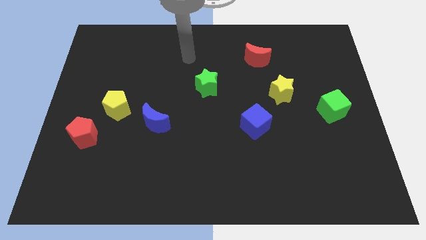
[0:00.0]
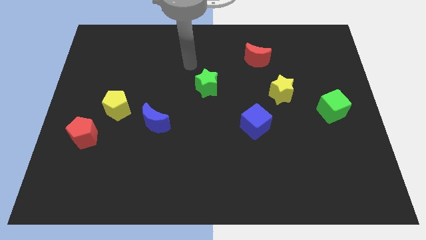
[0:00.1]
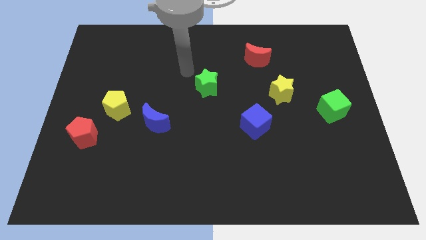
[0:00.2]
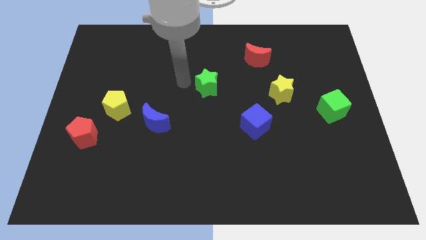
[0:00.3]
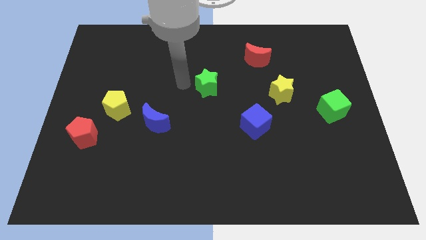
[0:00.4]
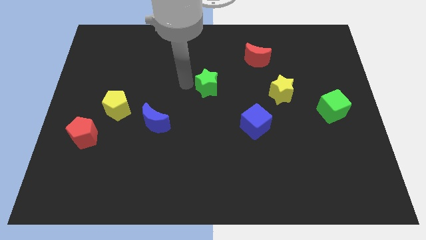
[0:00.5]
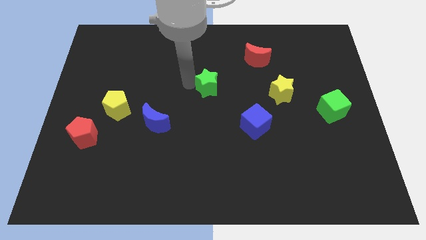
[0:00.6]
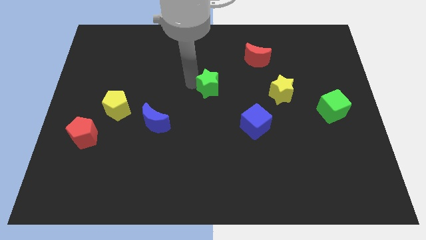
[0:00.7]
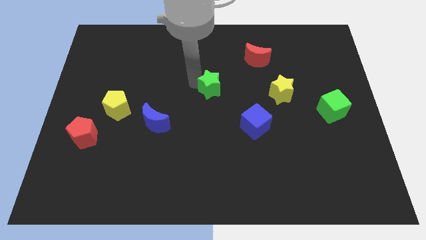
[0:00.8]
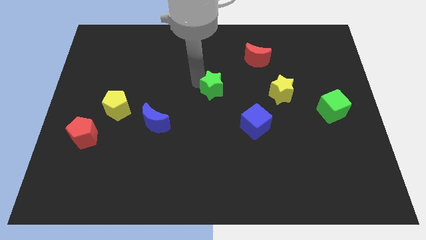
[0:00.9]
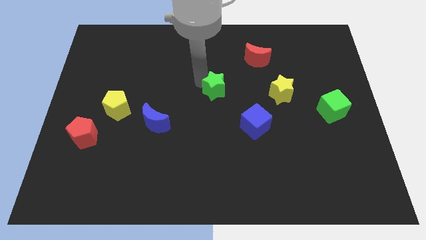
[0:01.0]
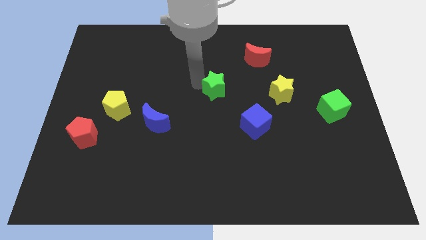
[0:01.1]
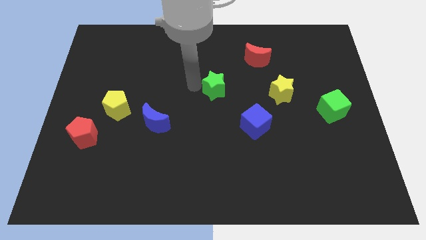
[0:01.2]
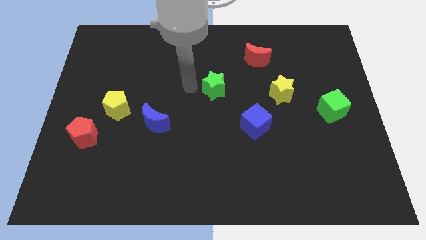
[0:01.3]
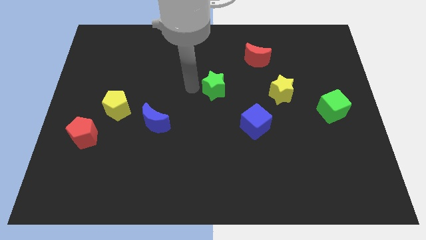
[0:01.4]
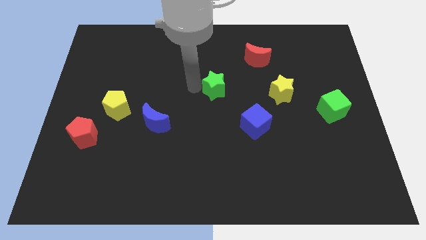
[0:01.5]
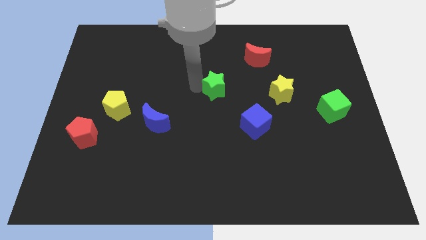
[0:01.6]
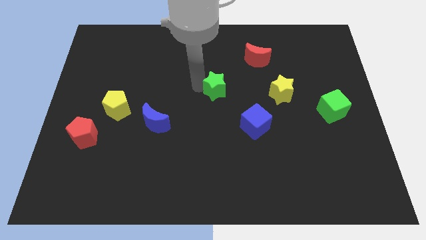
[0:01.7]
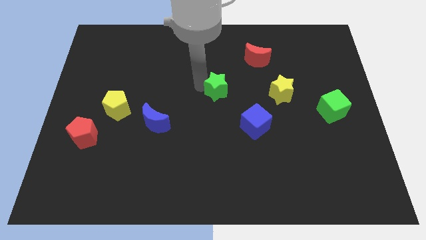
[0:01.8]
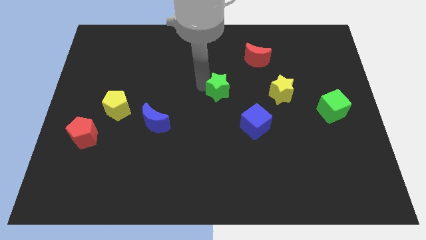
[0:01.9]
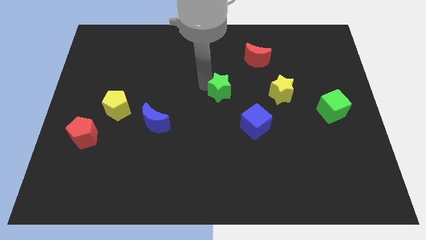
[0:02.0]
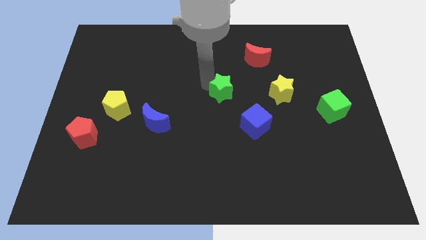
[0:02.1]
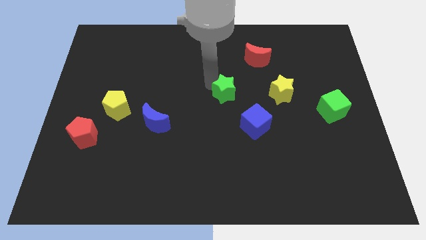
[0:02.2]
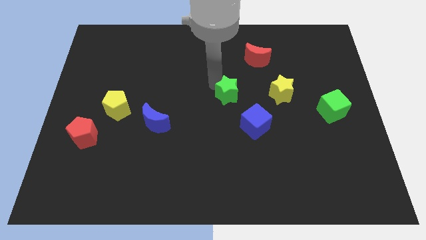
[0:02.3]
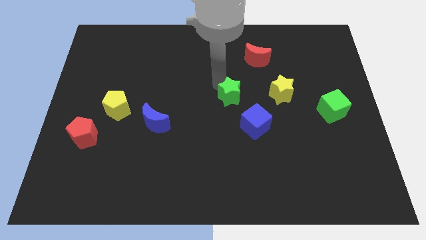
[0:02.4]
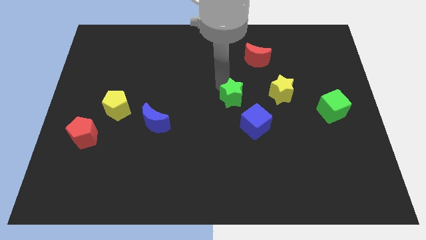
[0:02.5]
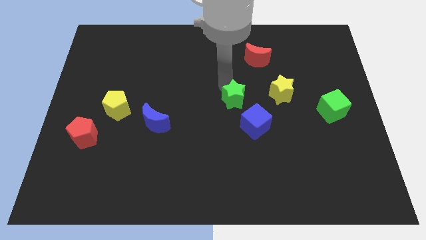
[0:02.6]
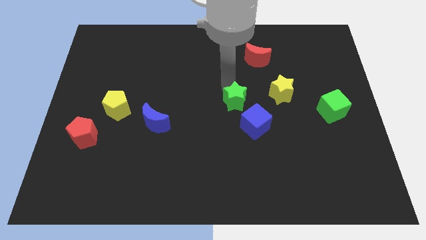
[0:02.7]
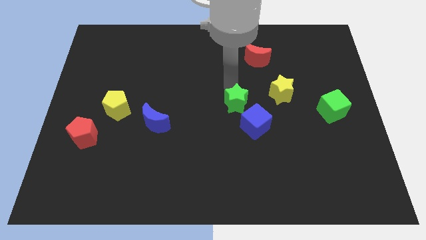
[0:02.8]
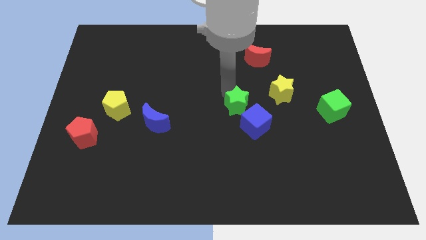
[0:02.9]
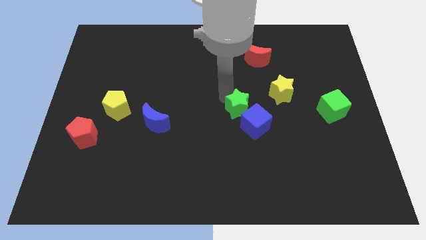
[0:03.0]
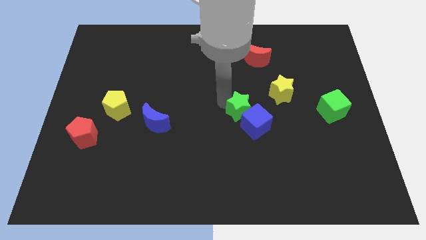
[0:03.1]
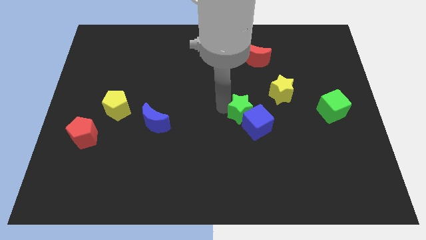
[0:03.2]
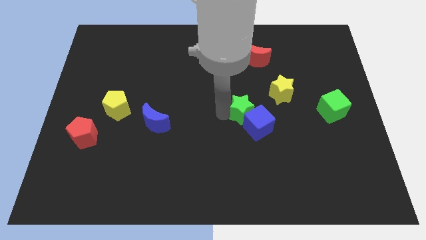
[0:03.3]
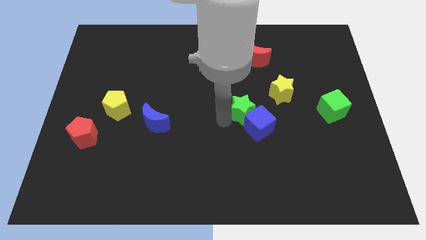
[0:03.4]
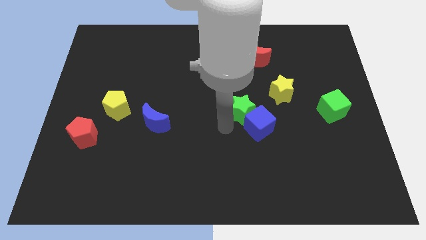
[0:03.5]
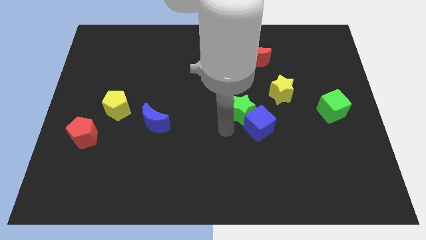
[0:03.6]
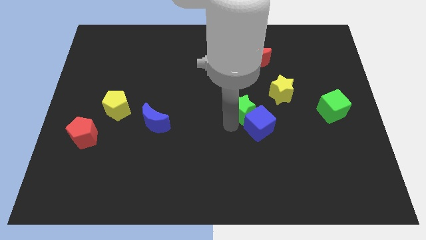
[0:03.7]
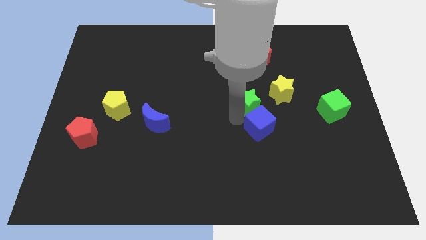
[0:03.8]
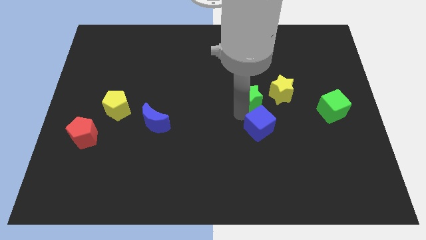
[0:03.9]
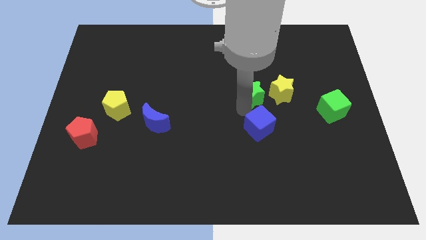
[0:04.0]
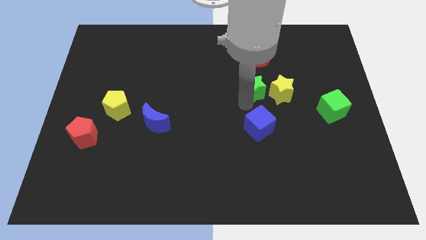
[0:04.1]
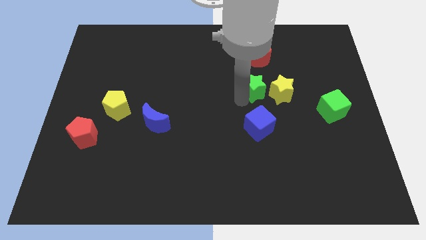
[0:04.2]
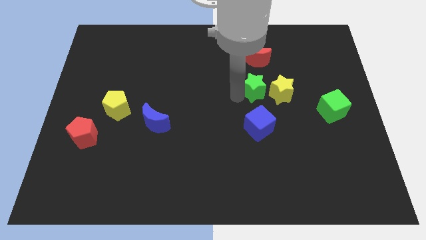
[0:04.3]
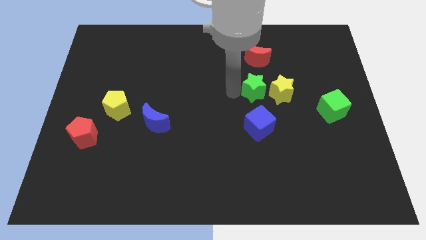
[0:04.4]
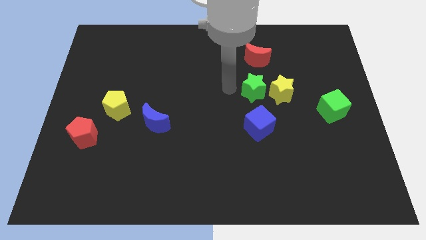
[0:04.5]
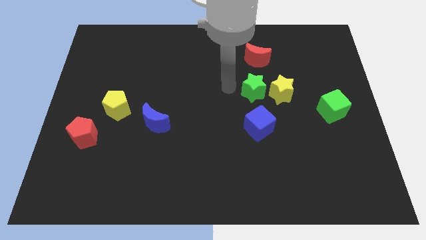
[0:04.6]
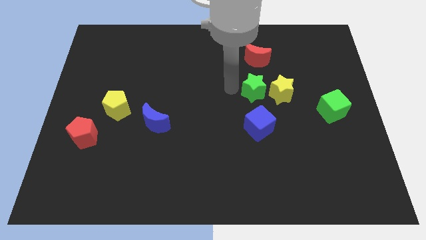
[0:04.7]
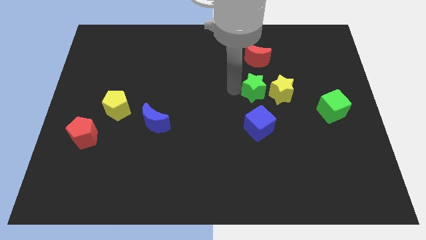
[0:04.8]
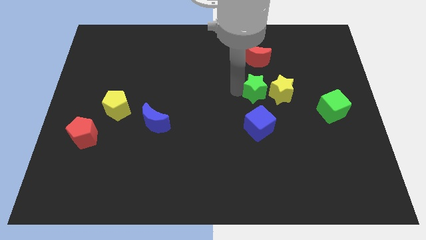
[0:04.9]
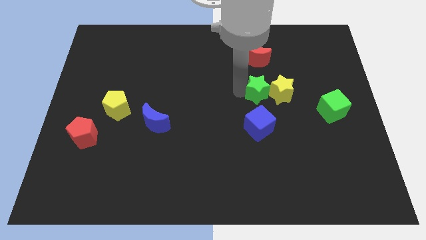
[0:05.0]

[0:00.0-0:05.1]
put the green star next to the yellow star

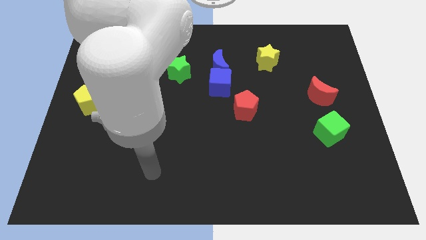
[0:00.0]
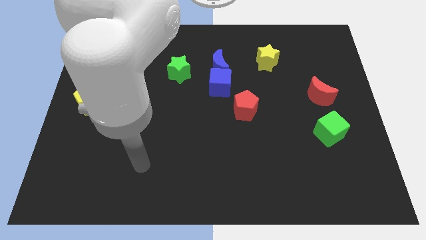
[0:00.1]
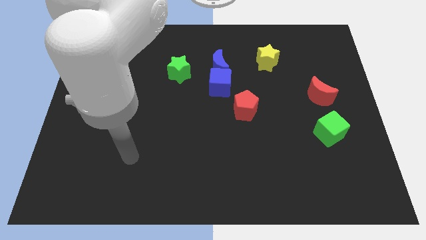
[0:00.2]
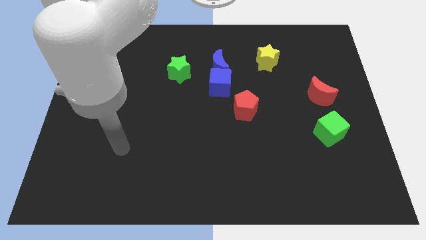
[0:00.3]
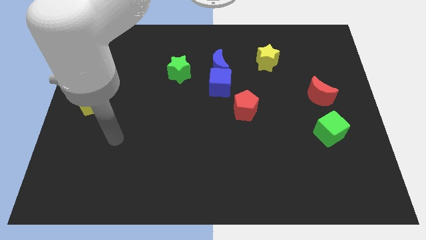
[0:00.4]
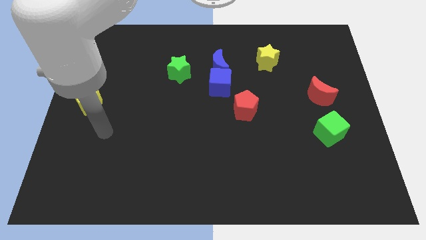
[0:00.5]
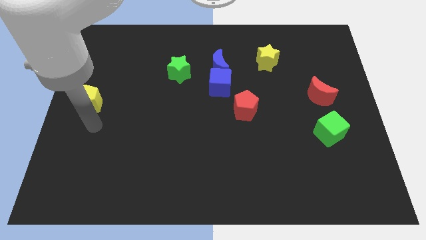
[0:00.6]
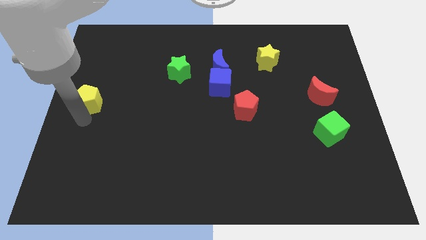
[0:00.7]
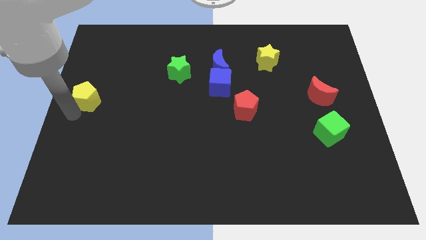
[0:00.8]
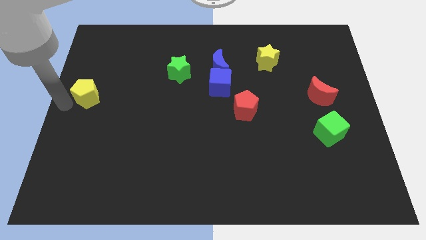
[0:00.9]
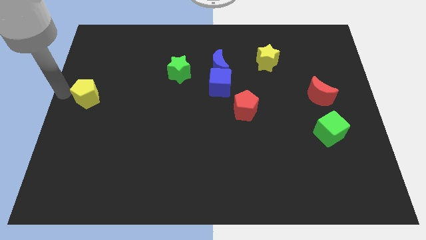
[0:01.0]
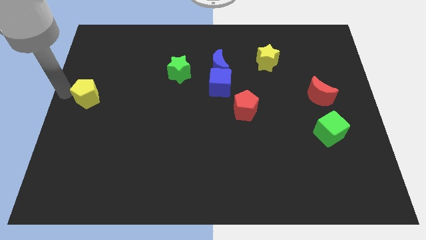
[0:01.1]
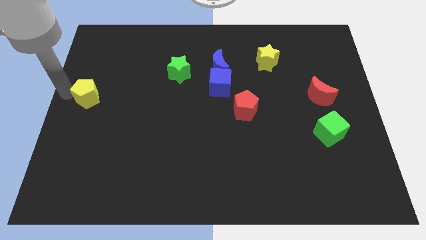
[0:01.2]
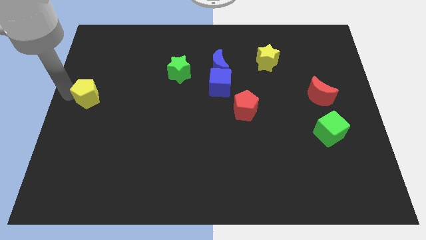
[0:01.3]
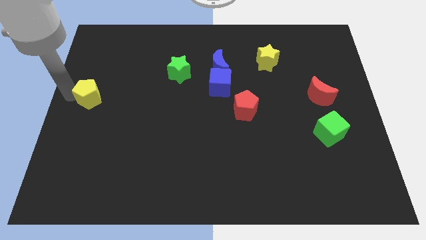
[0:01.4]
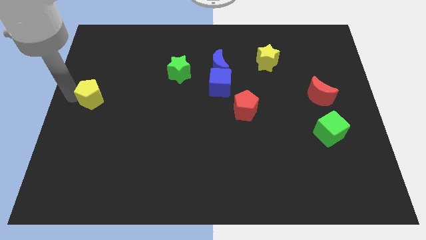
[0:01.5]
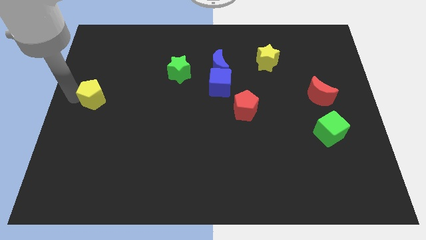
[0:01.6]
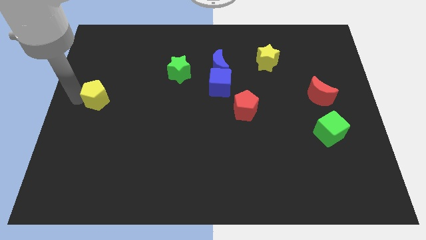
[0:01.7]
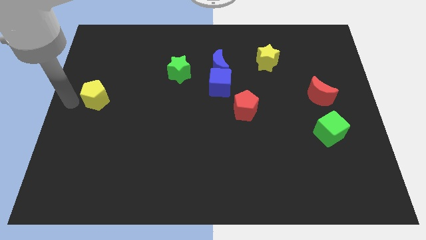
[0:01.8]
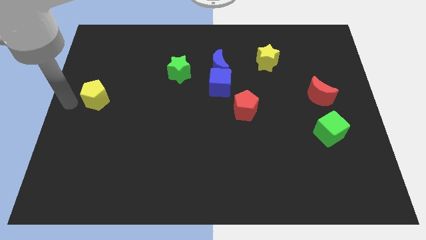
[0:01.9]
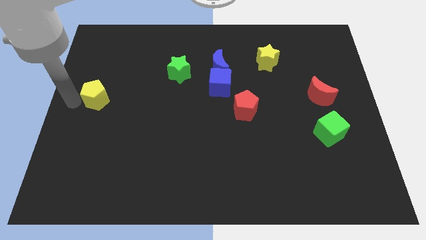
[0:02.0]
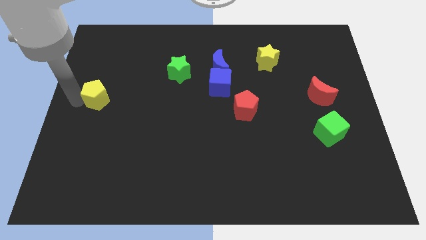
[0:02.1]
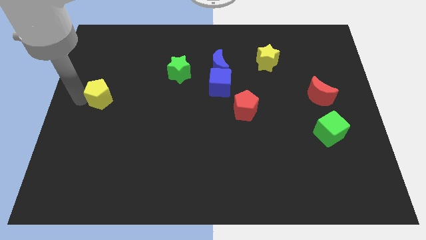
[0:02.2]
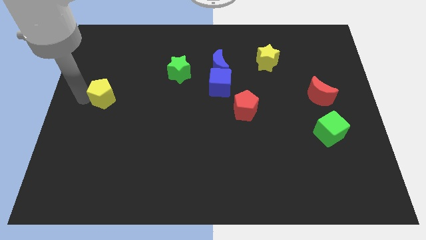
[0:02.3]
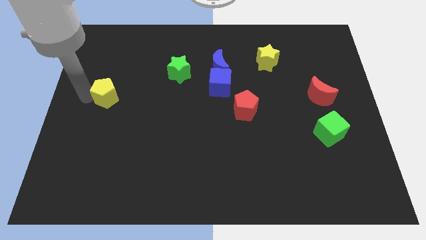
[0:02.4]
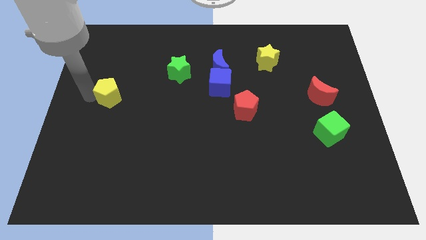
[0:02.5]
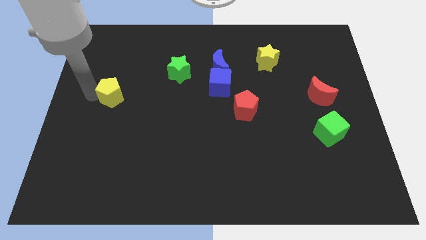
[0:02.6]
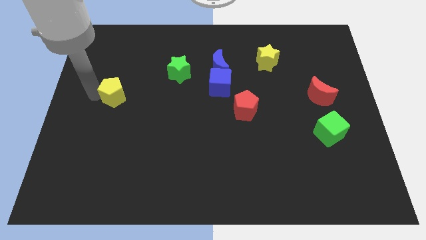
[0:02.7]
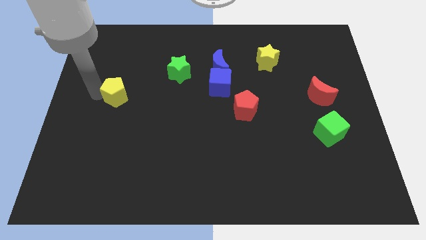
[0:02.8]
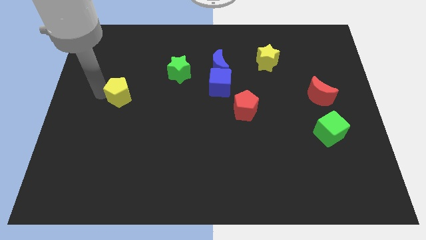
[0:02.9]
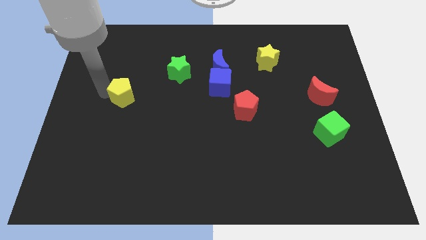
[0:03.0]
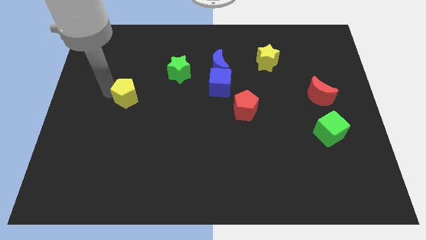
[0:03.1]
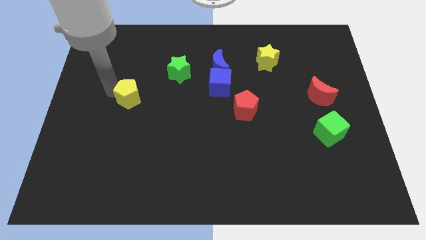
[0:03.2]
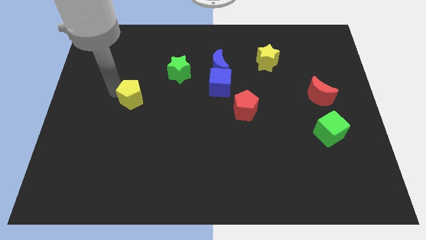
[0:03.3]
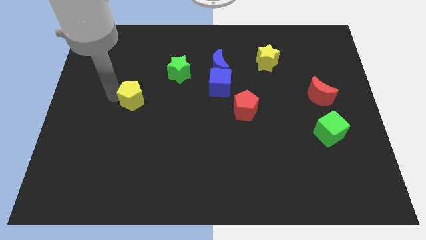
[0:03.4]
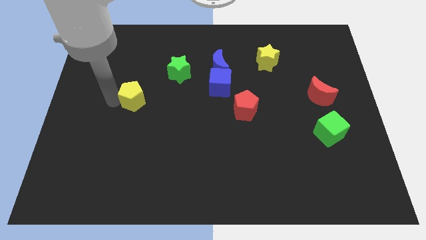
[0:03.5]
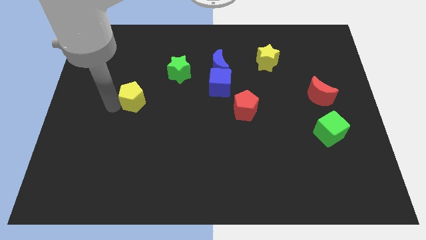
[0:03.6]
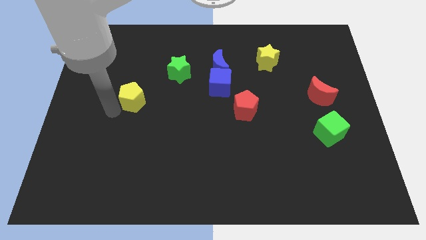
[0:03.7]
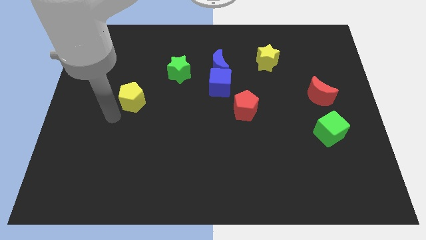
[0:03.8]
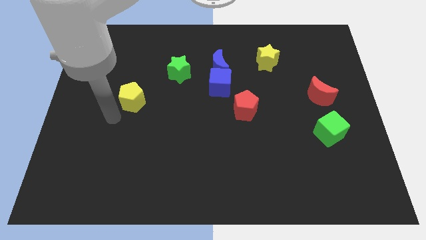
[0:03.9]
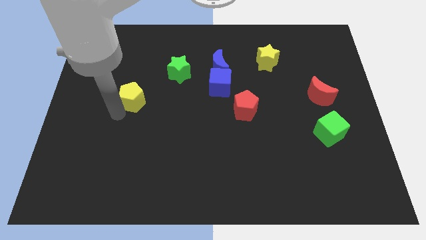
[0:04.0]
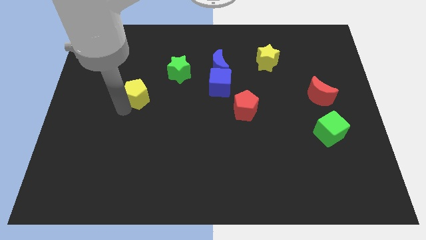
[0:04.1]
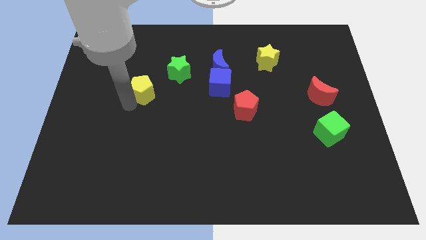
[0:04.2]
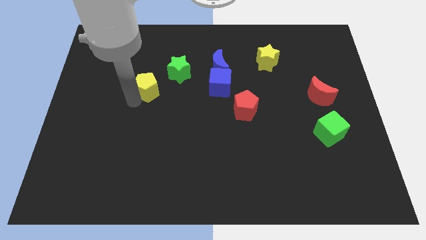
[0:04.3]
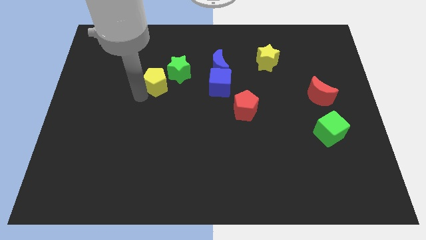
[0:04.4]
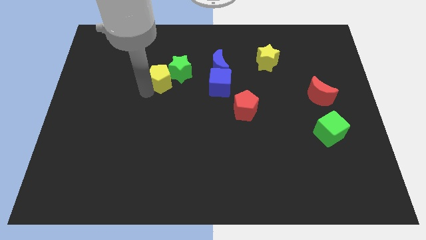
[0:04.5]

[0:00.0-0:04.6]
move the yellow pentagon towards the green star
